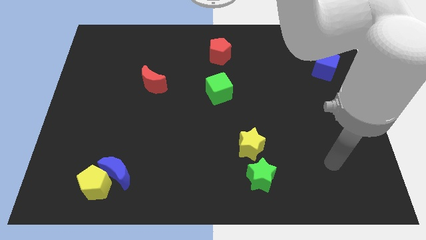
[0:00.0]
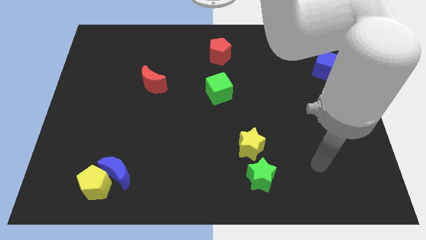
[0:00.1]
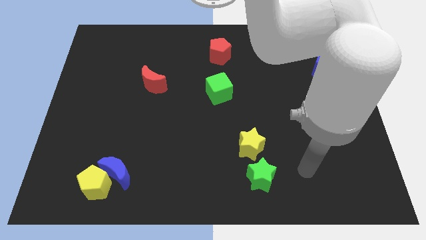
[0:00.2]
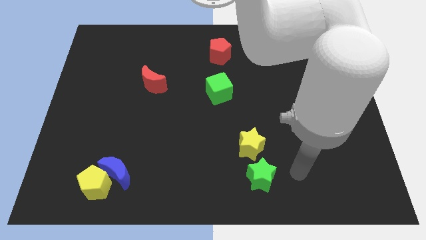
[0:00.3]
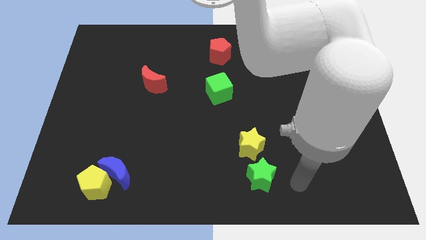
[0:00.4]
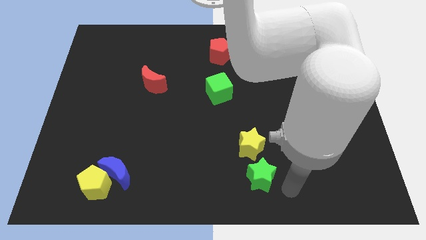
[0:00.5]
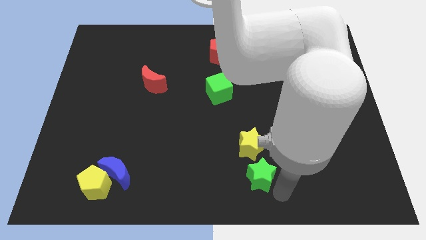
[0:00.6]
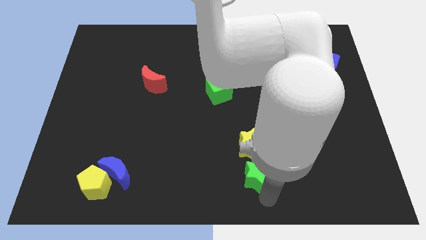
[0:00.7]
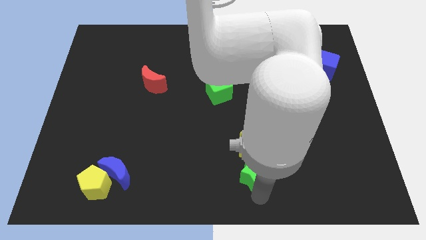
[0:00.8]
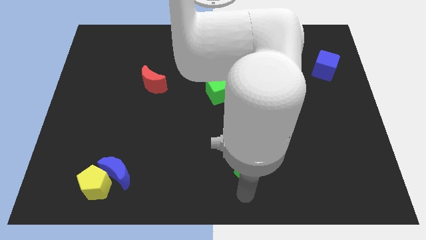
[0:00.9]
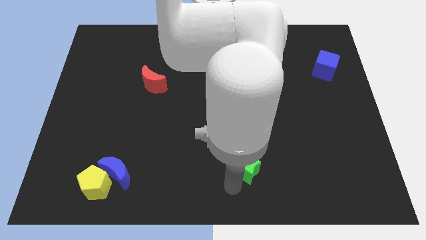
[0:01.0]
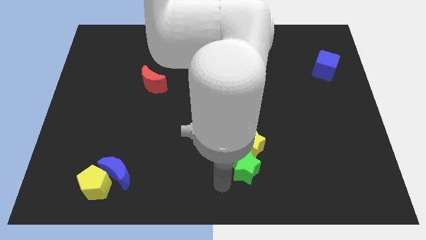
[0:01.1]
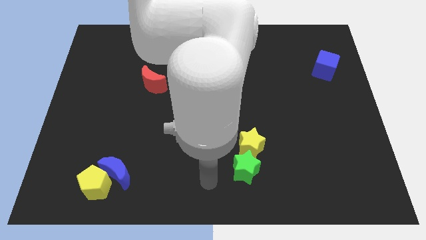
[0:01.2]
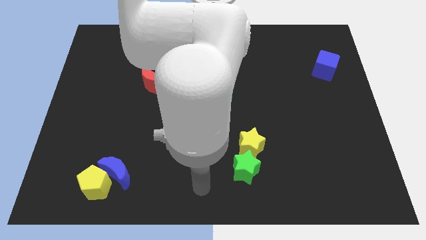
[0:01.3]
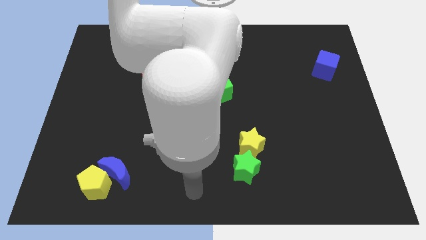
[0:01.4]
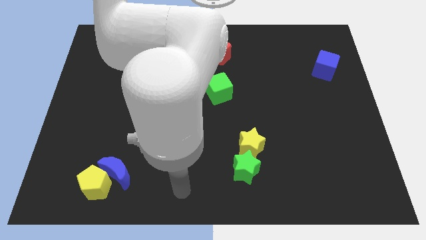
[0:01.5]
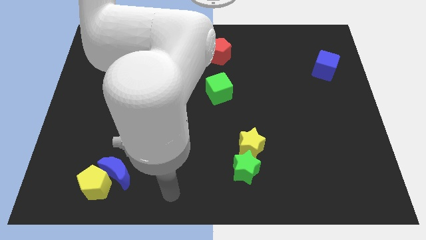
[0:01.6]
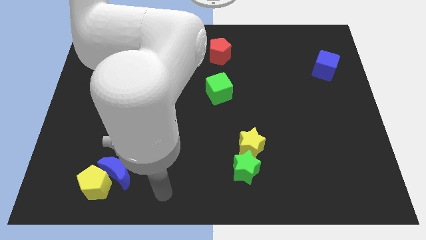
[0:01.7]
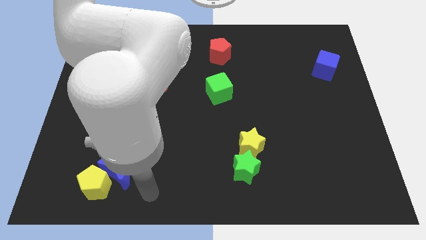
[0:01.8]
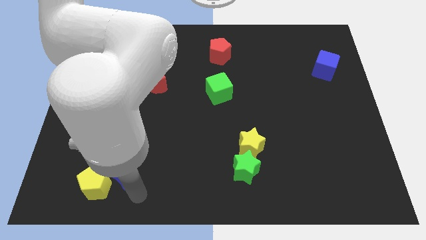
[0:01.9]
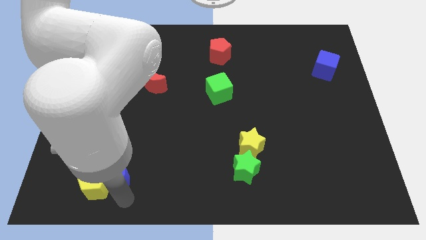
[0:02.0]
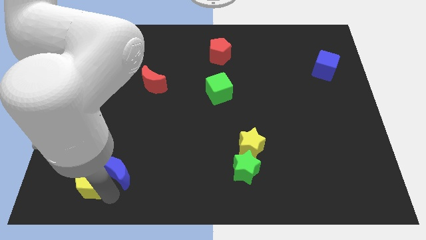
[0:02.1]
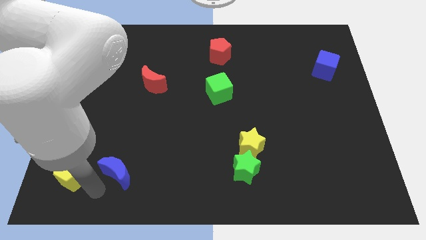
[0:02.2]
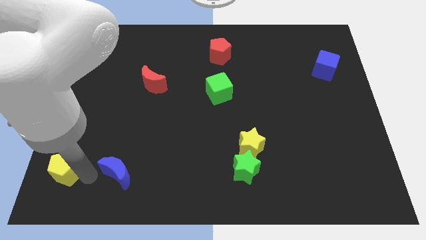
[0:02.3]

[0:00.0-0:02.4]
separate the blue moon from the yellow pentagon

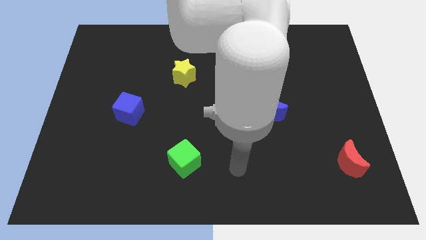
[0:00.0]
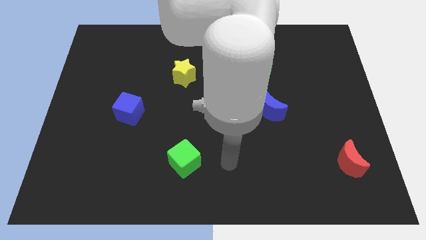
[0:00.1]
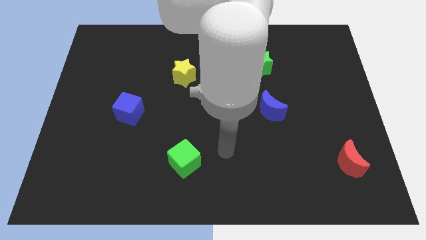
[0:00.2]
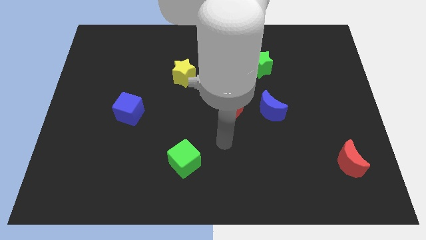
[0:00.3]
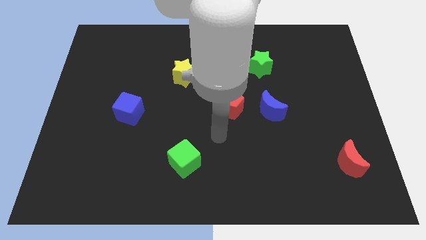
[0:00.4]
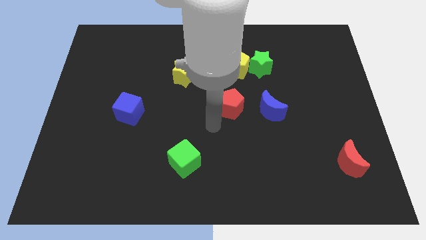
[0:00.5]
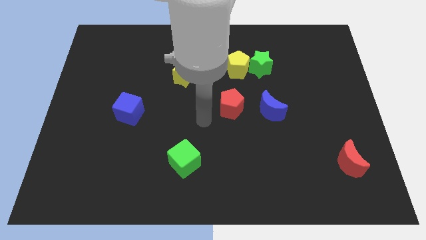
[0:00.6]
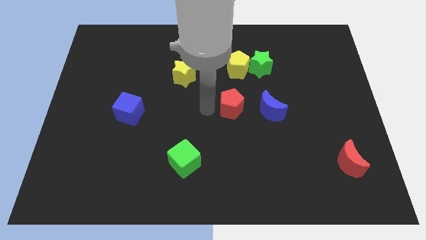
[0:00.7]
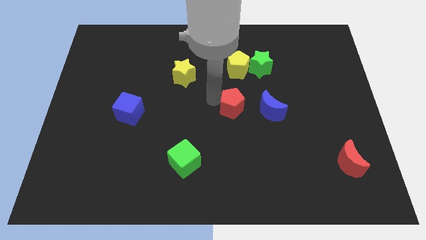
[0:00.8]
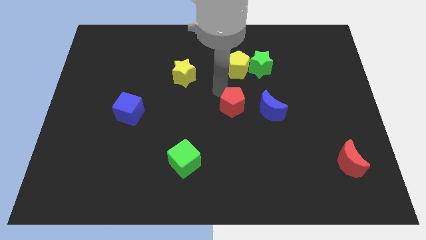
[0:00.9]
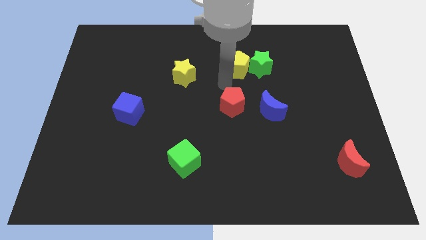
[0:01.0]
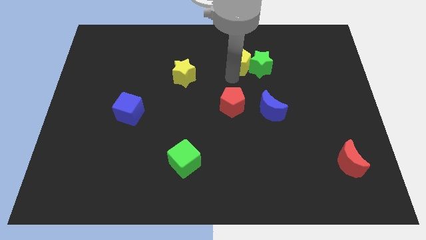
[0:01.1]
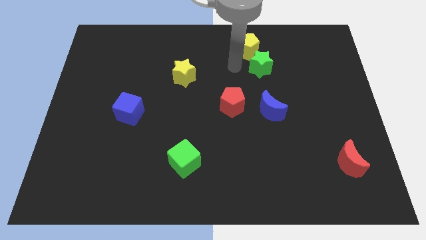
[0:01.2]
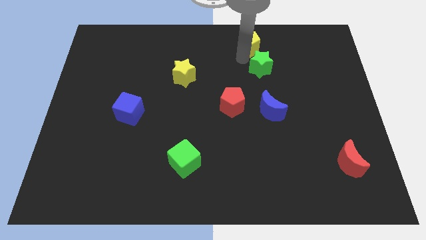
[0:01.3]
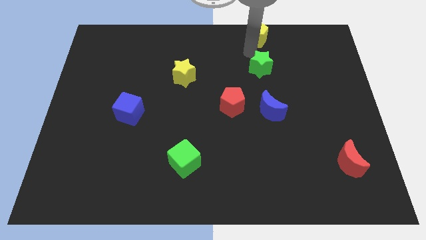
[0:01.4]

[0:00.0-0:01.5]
pull the green star apart from the yellow pentagon

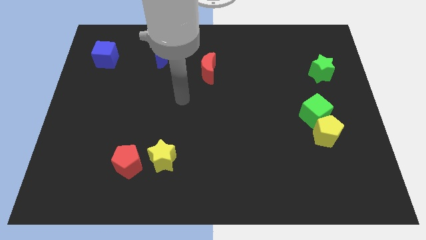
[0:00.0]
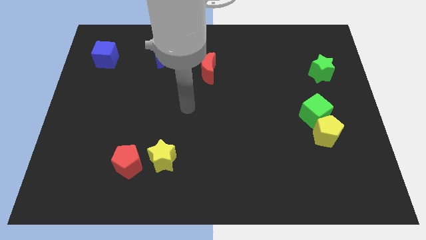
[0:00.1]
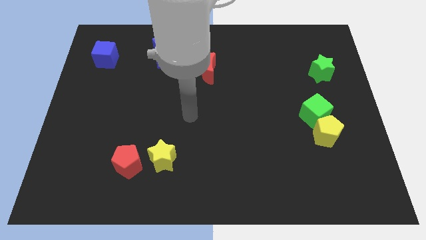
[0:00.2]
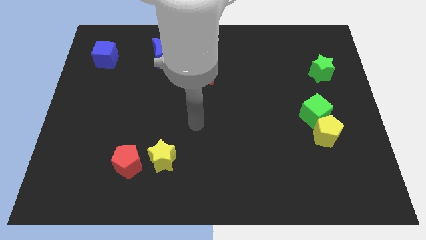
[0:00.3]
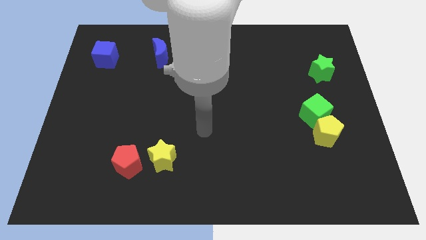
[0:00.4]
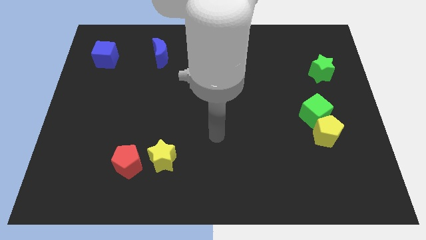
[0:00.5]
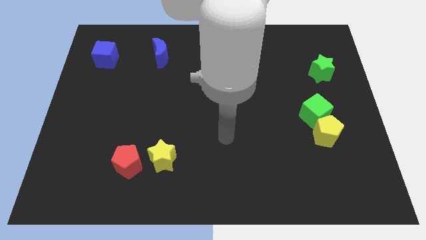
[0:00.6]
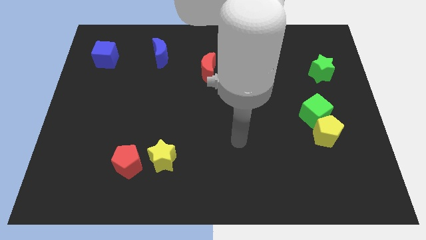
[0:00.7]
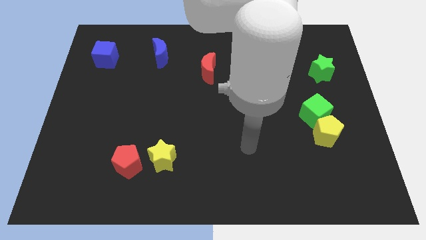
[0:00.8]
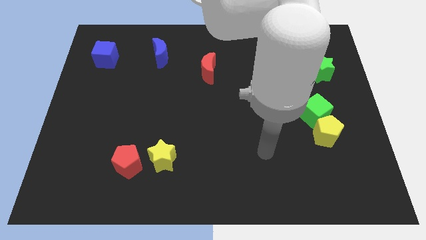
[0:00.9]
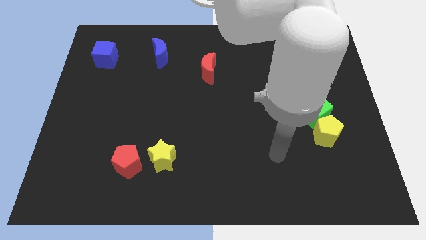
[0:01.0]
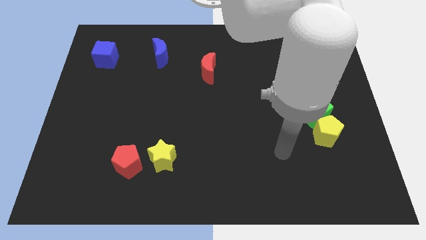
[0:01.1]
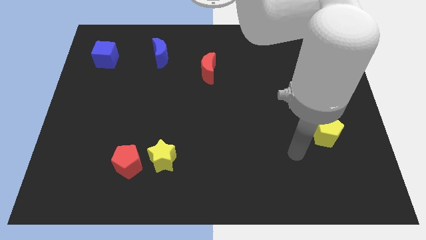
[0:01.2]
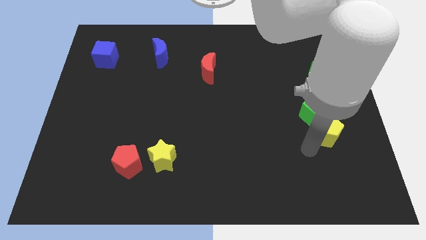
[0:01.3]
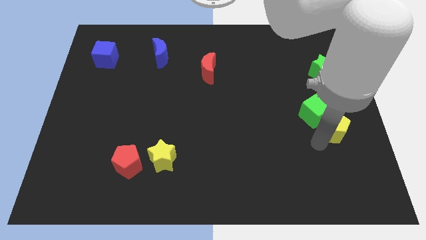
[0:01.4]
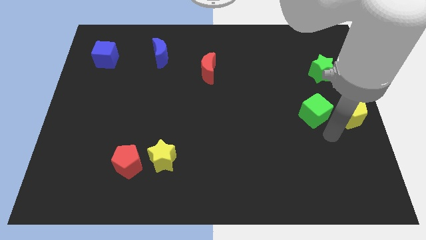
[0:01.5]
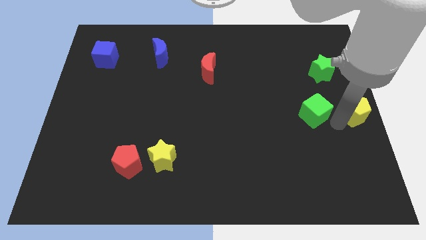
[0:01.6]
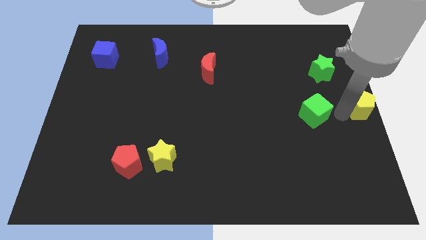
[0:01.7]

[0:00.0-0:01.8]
pull the green cube apart from the yellow pentagon

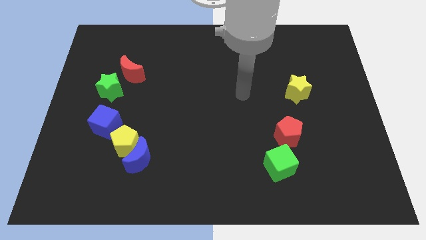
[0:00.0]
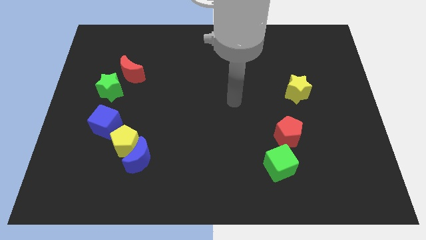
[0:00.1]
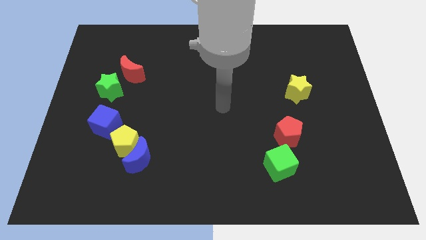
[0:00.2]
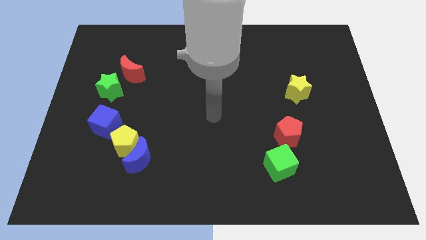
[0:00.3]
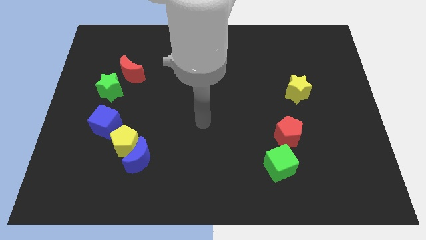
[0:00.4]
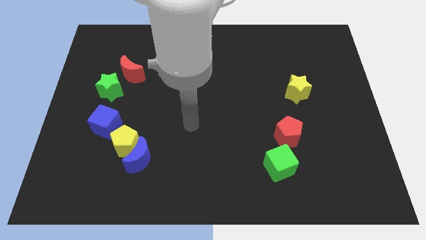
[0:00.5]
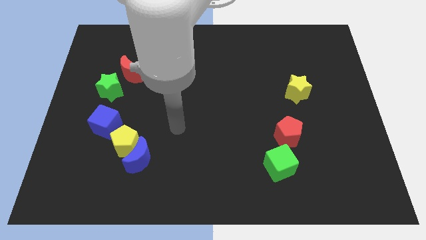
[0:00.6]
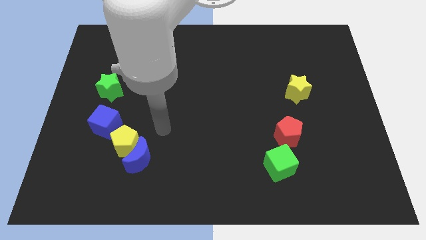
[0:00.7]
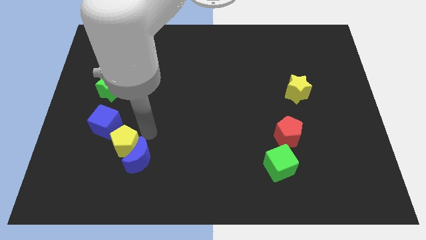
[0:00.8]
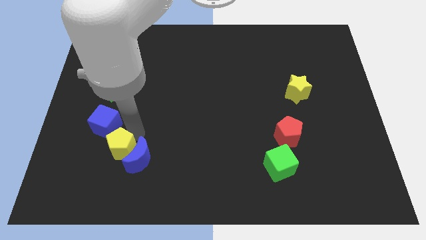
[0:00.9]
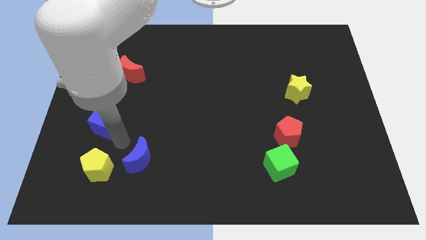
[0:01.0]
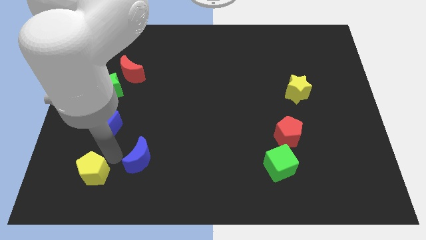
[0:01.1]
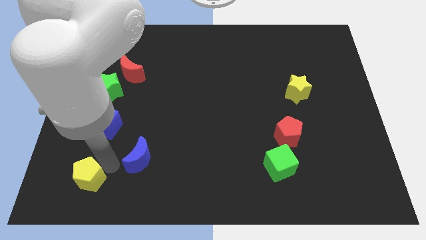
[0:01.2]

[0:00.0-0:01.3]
move the blue moon away from the yellow pentagon

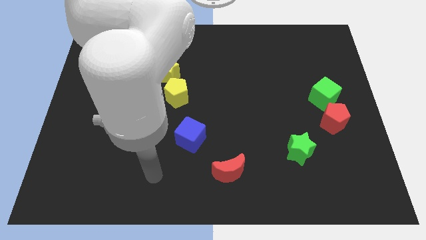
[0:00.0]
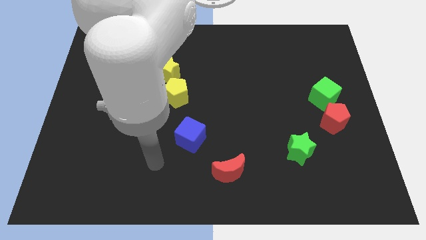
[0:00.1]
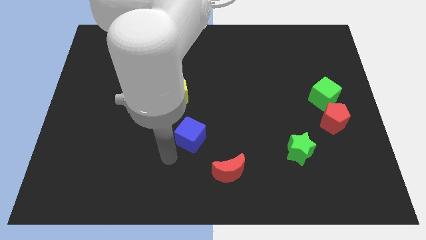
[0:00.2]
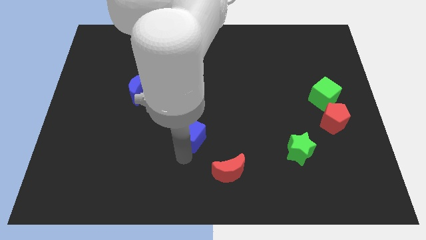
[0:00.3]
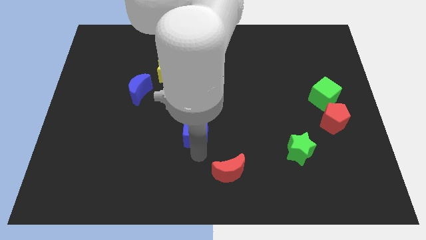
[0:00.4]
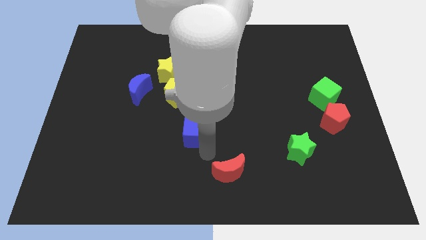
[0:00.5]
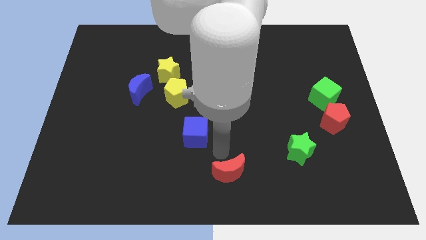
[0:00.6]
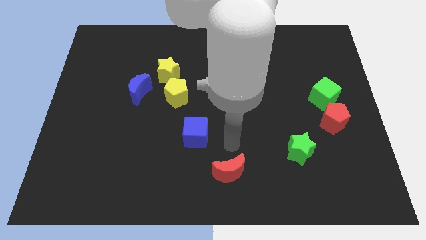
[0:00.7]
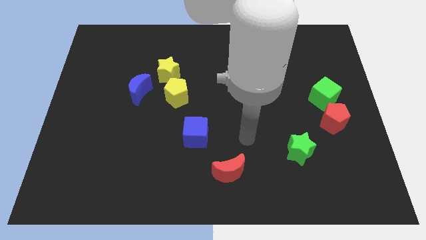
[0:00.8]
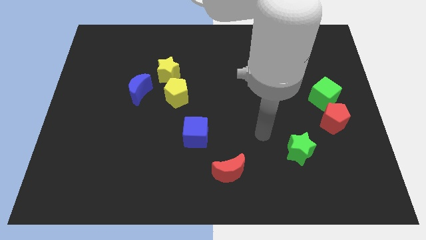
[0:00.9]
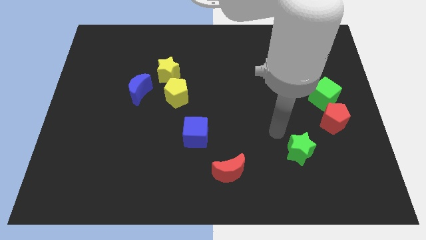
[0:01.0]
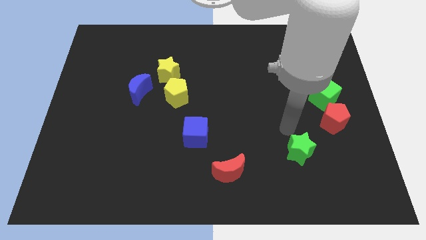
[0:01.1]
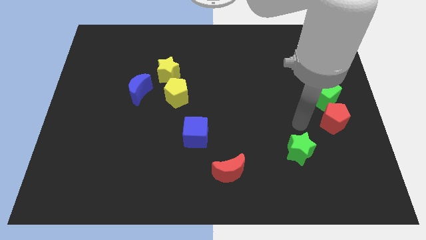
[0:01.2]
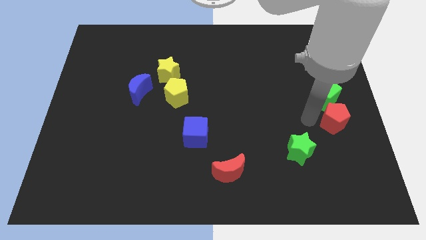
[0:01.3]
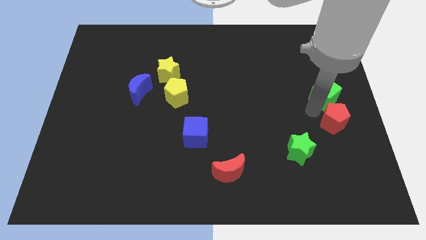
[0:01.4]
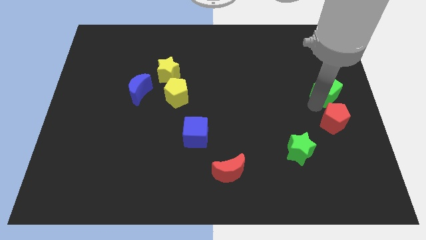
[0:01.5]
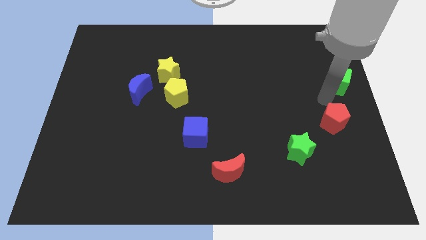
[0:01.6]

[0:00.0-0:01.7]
pull the red pentagon apart from the green cube

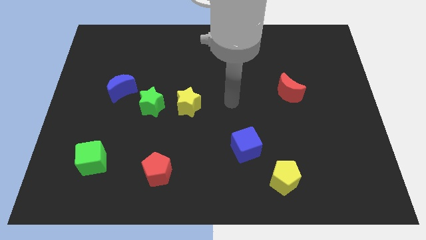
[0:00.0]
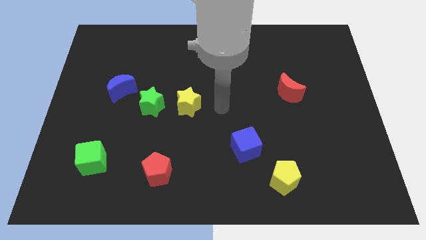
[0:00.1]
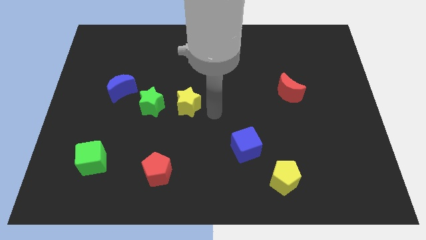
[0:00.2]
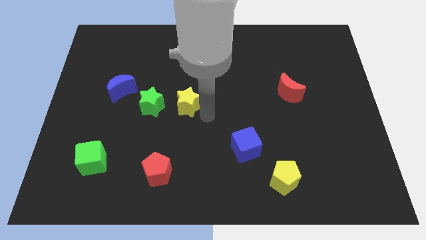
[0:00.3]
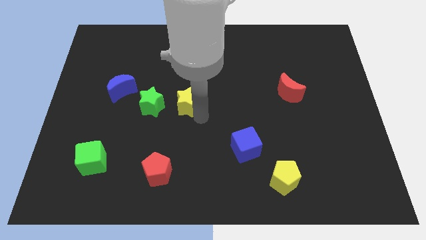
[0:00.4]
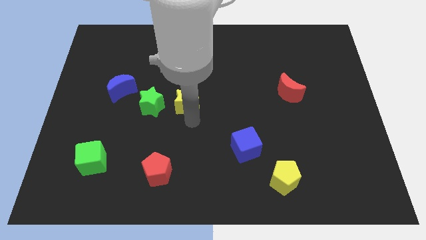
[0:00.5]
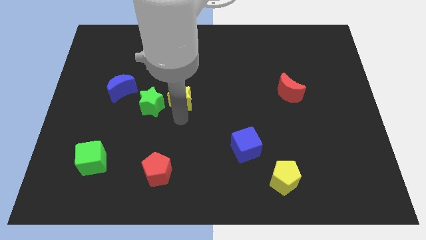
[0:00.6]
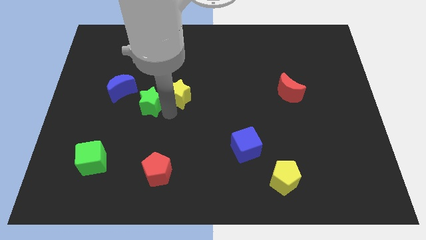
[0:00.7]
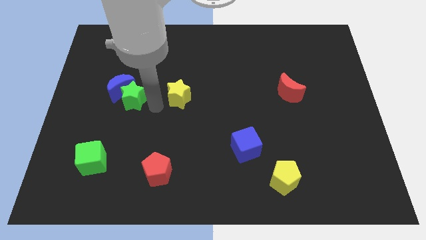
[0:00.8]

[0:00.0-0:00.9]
move the yellow star away from the green star
